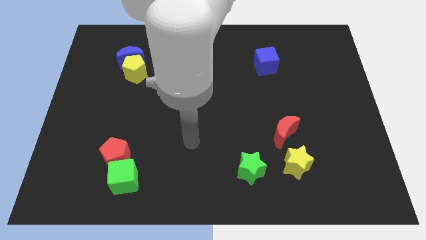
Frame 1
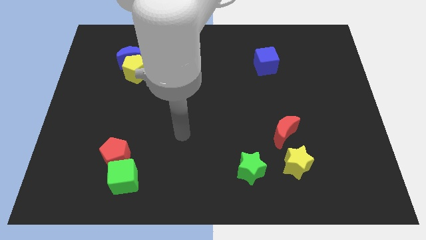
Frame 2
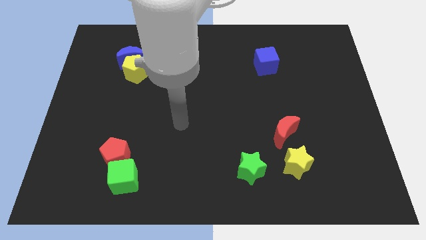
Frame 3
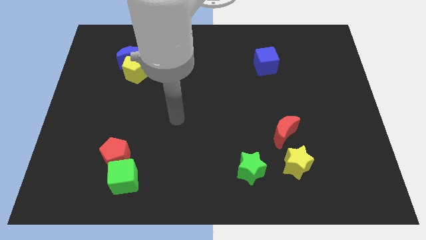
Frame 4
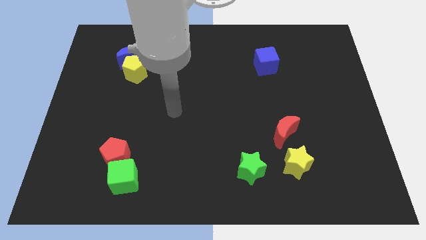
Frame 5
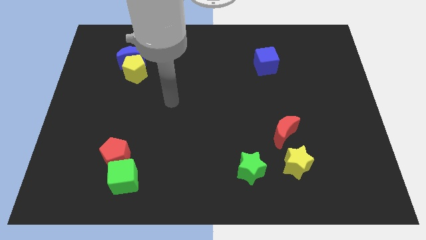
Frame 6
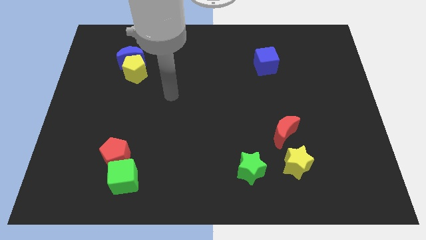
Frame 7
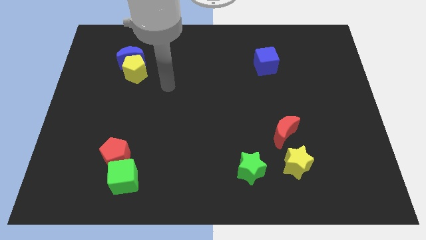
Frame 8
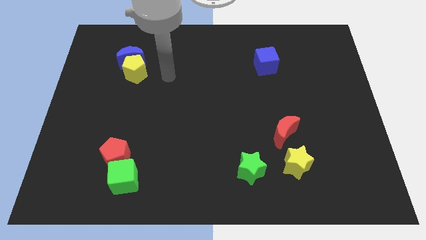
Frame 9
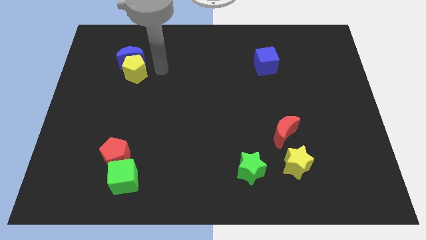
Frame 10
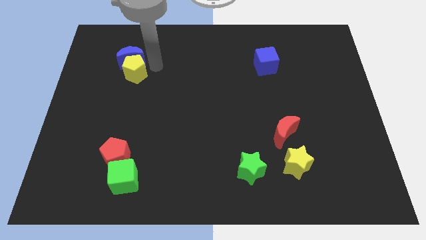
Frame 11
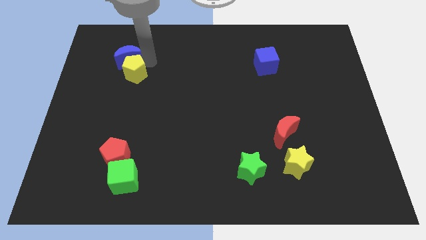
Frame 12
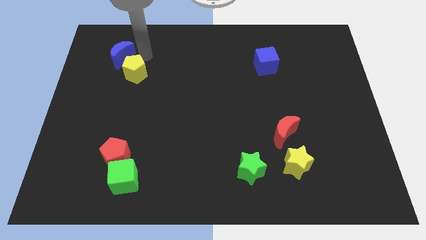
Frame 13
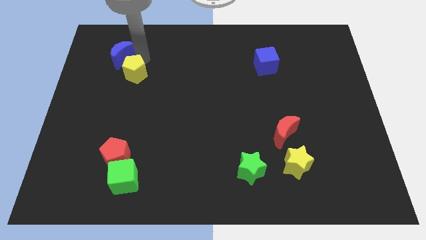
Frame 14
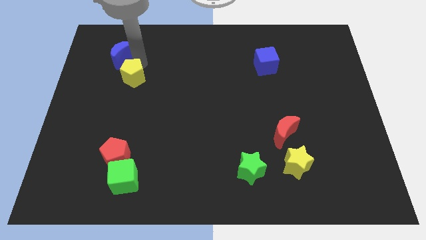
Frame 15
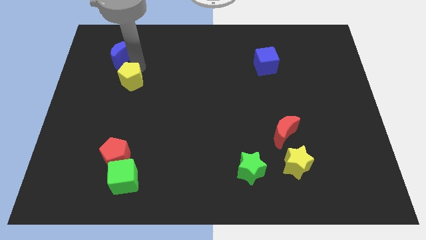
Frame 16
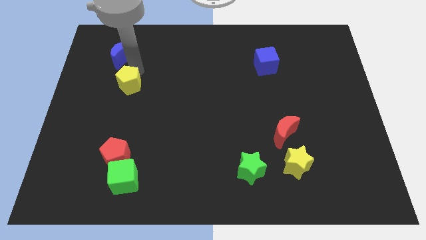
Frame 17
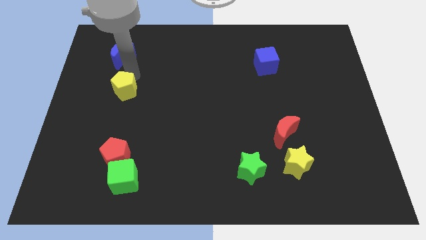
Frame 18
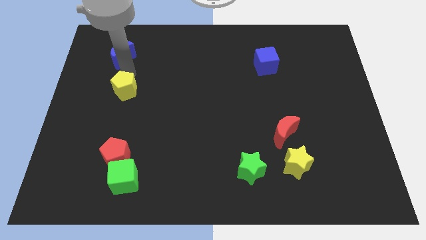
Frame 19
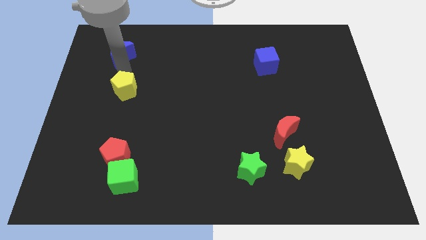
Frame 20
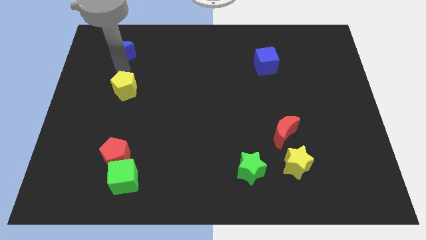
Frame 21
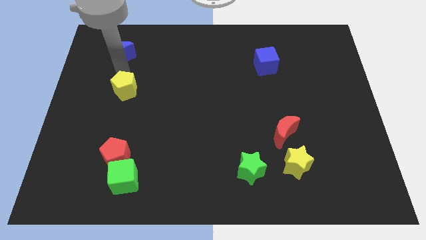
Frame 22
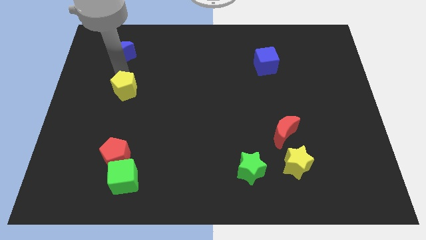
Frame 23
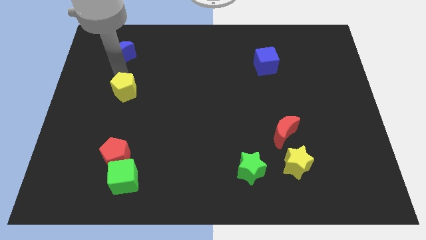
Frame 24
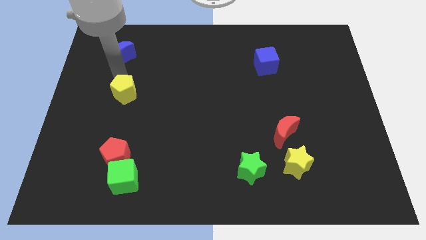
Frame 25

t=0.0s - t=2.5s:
slightly move the yellow pentagon down

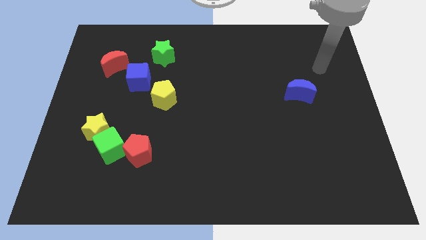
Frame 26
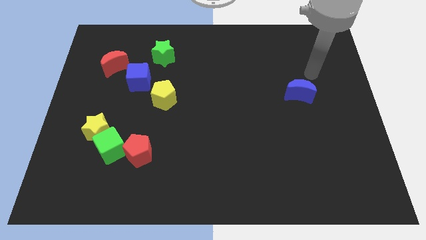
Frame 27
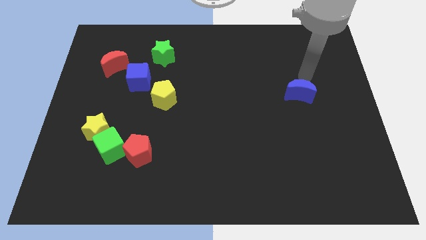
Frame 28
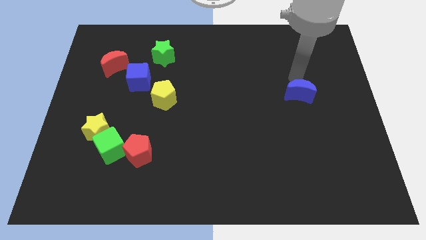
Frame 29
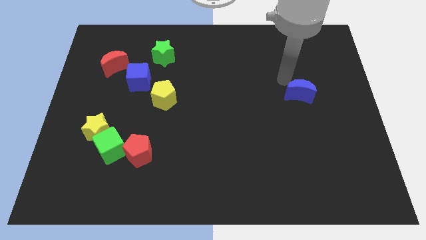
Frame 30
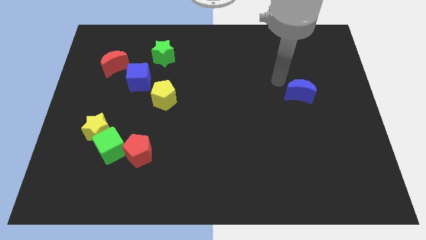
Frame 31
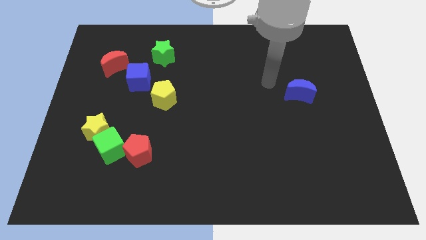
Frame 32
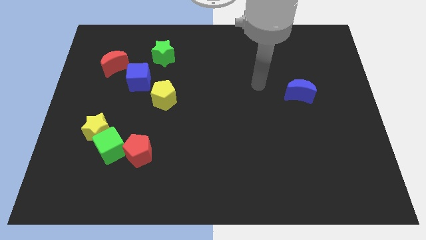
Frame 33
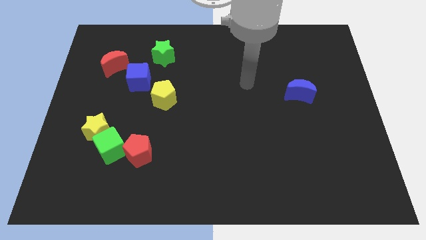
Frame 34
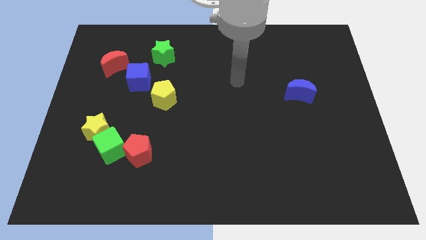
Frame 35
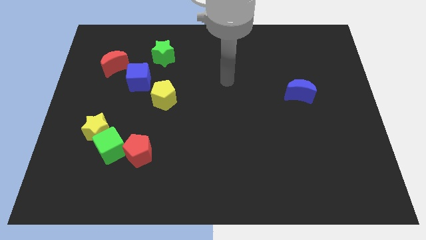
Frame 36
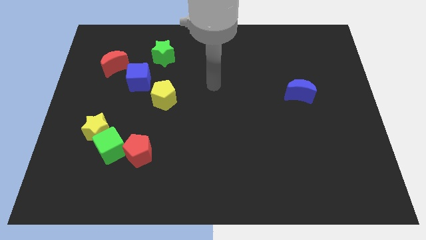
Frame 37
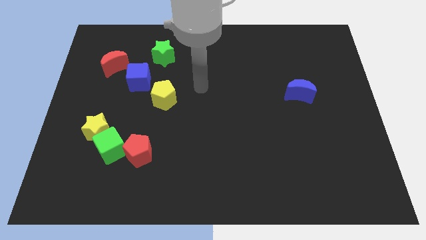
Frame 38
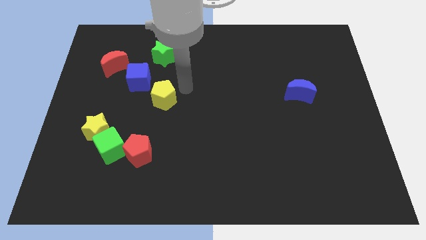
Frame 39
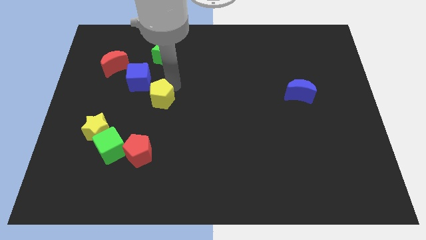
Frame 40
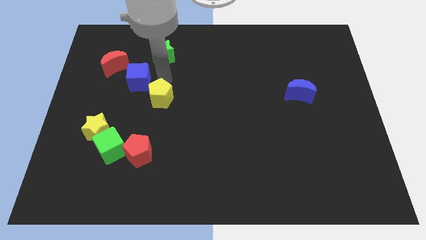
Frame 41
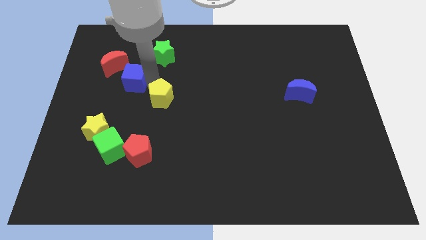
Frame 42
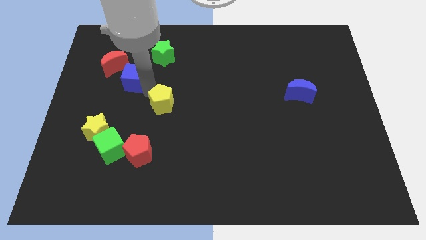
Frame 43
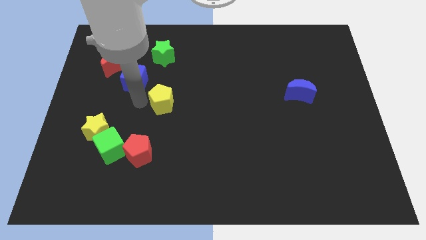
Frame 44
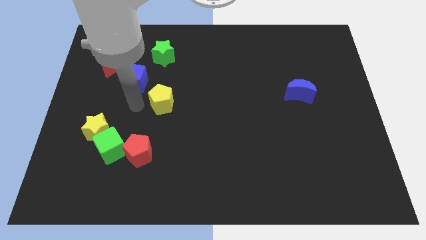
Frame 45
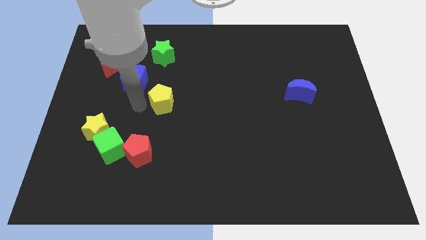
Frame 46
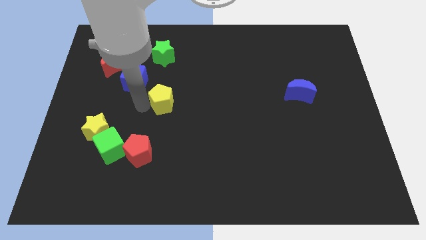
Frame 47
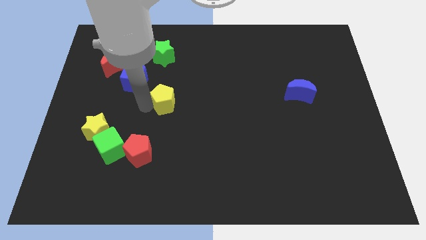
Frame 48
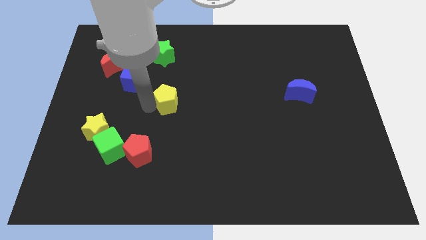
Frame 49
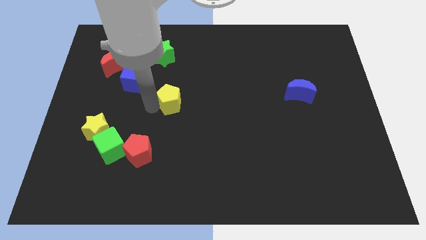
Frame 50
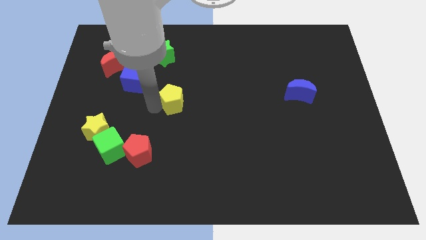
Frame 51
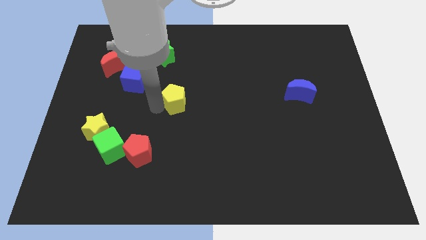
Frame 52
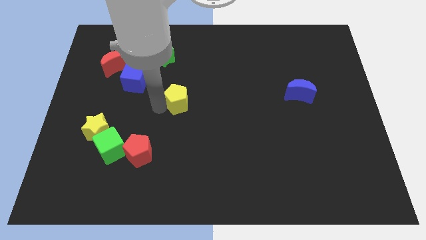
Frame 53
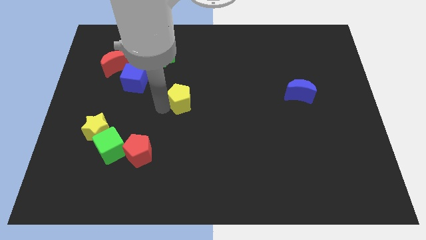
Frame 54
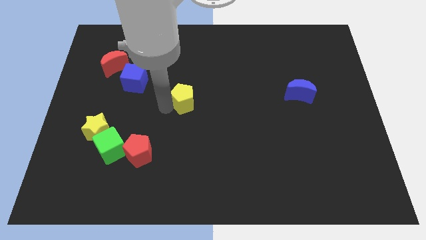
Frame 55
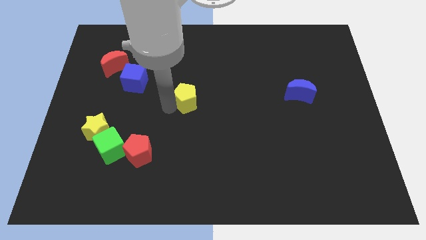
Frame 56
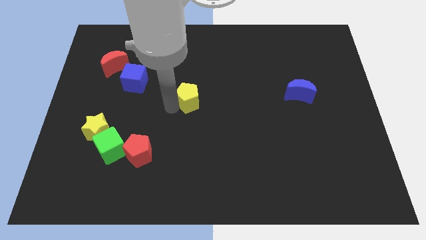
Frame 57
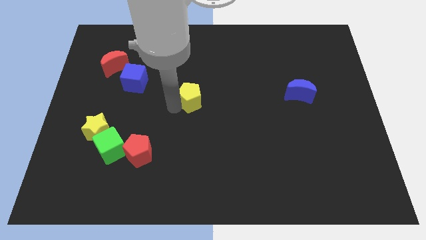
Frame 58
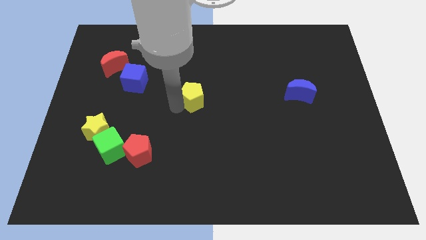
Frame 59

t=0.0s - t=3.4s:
slide the yellow pentagon to the right slightly

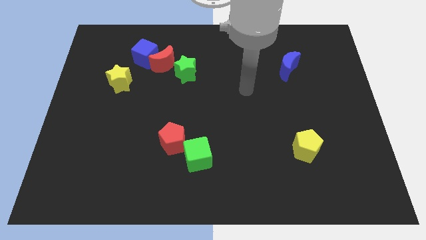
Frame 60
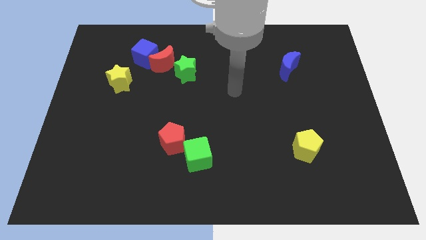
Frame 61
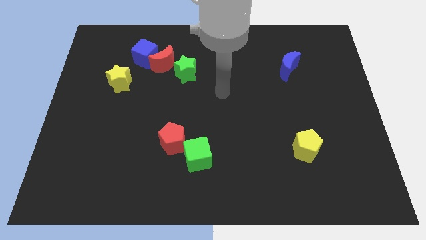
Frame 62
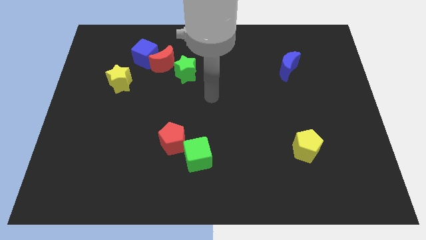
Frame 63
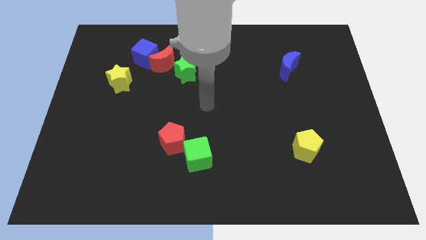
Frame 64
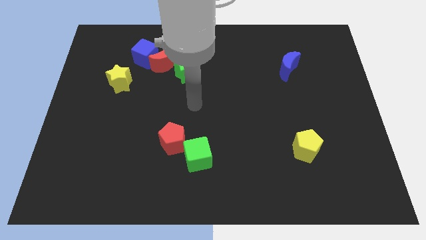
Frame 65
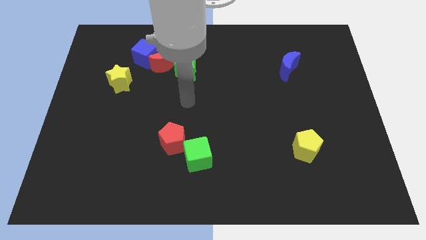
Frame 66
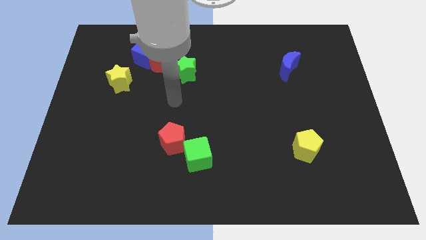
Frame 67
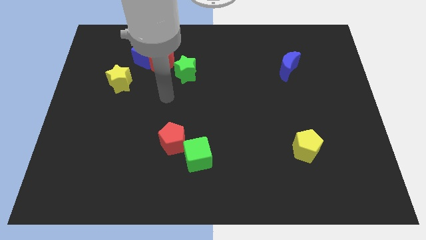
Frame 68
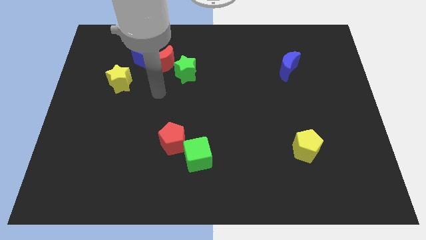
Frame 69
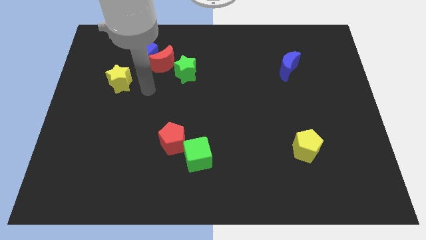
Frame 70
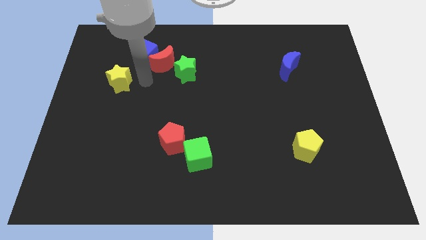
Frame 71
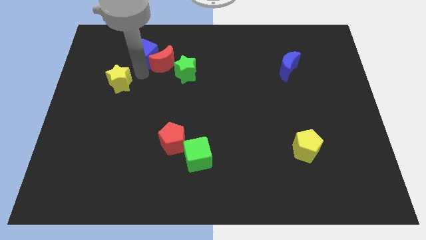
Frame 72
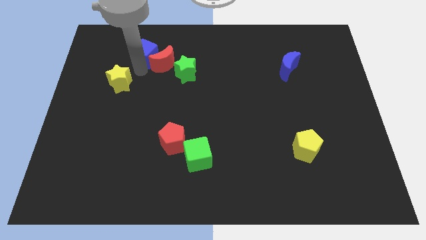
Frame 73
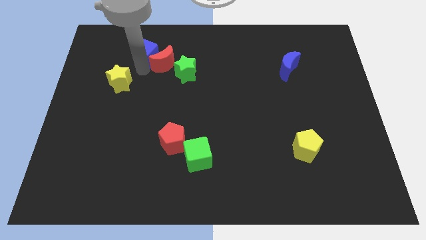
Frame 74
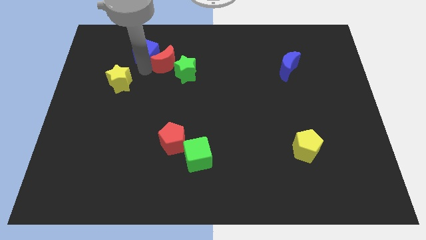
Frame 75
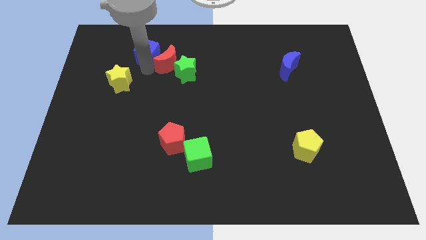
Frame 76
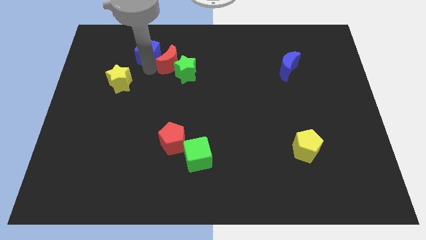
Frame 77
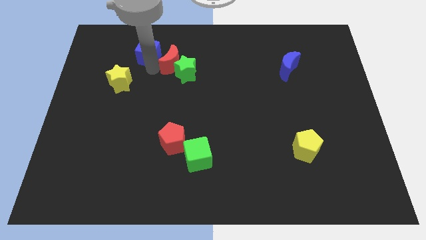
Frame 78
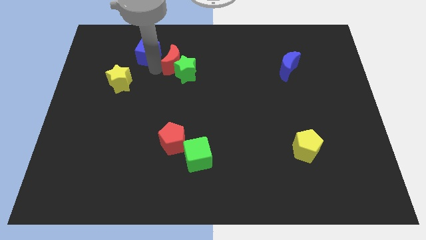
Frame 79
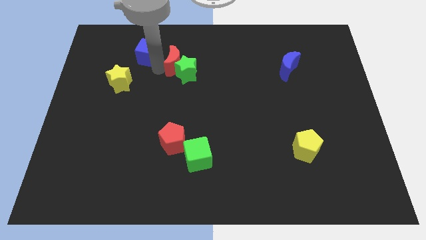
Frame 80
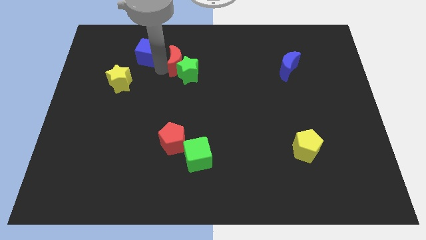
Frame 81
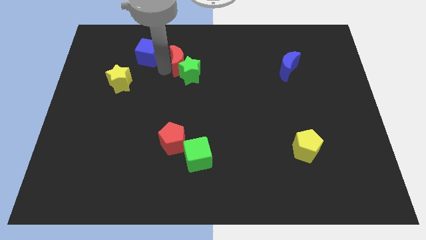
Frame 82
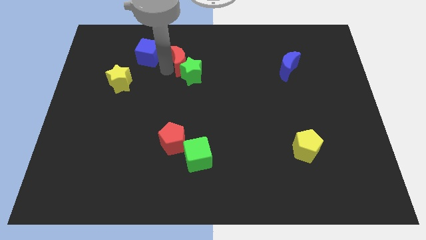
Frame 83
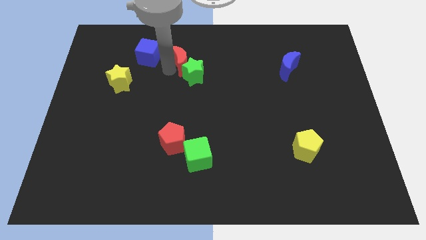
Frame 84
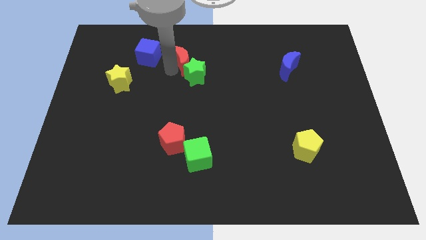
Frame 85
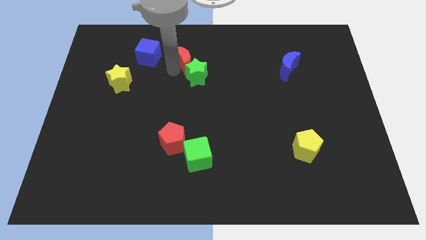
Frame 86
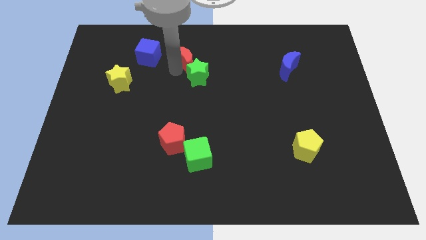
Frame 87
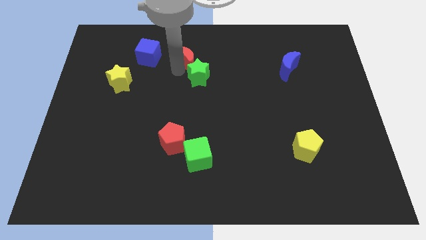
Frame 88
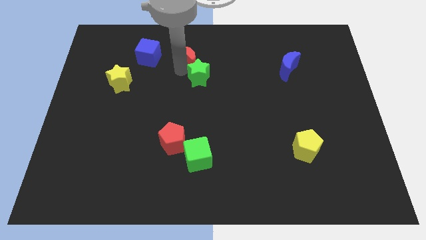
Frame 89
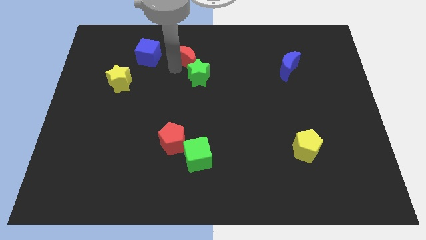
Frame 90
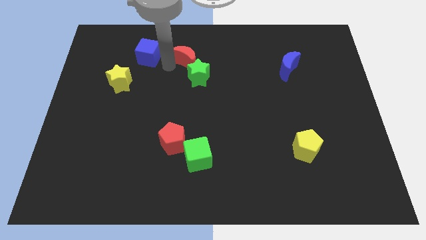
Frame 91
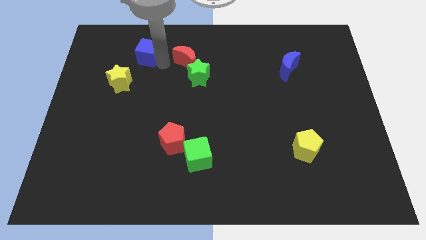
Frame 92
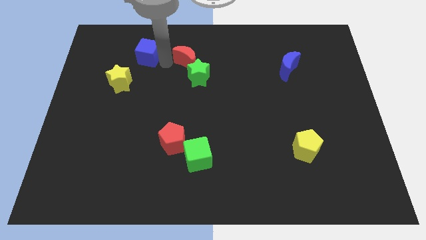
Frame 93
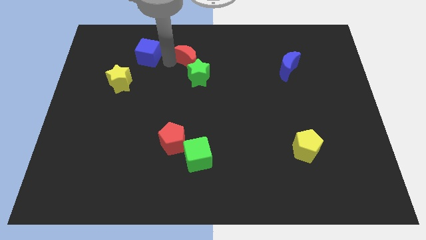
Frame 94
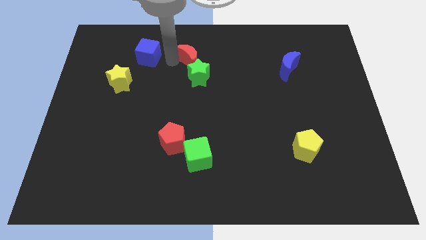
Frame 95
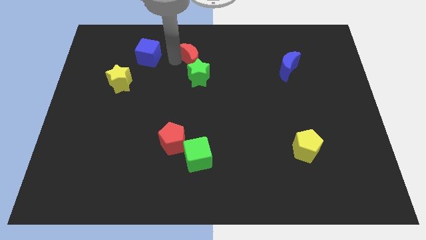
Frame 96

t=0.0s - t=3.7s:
slide the red moon to the right a little bit
